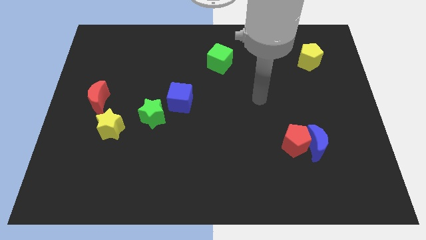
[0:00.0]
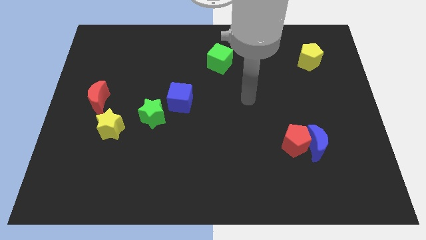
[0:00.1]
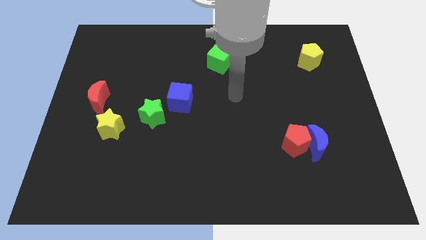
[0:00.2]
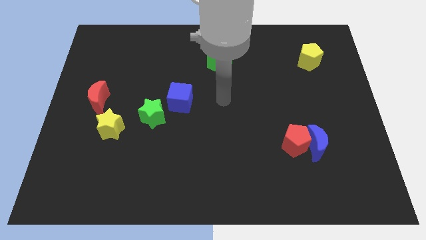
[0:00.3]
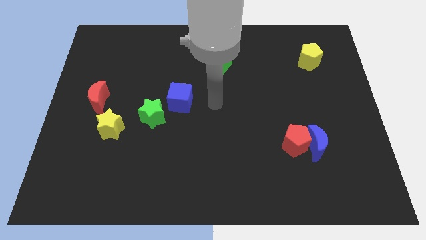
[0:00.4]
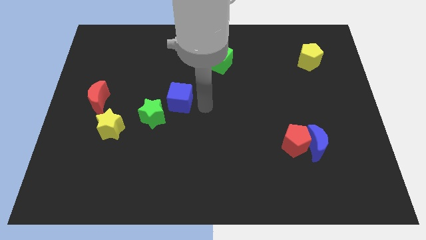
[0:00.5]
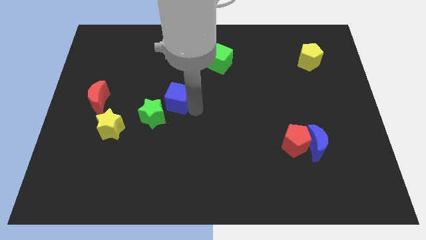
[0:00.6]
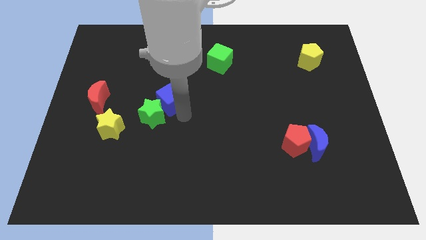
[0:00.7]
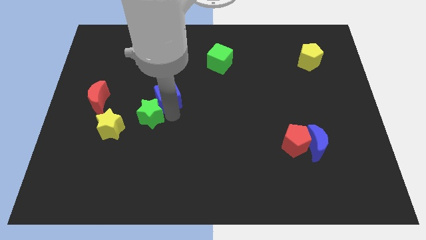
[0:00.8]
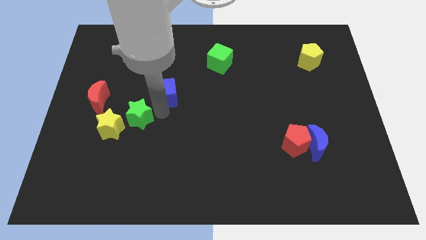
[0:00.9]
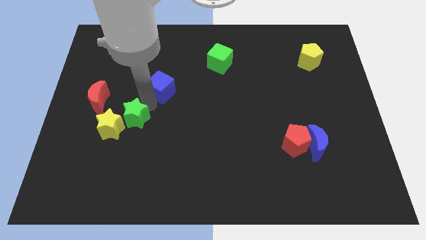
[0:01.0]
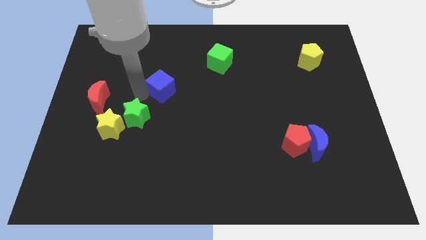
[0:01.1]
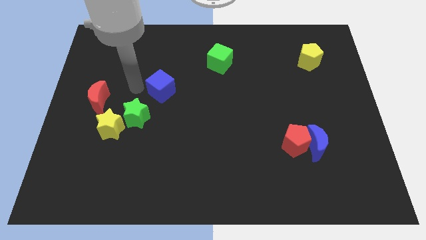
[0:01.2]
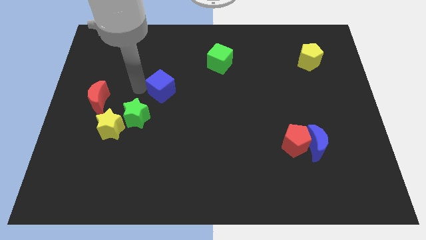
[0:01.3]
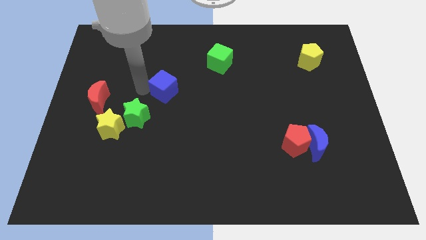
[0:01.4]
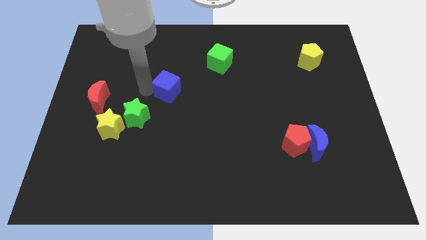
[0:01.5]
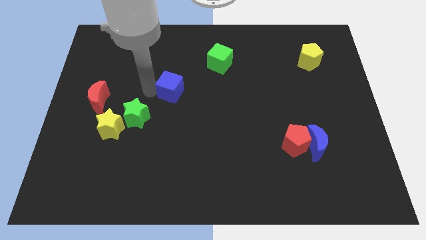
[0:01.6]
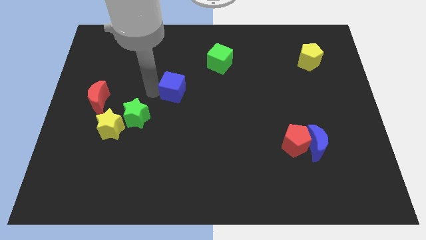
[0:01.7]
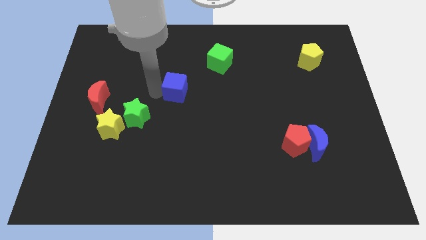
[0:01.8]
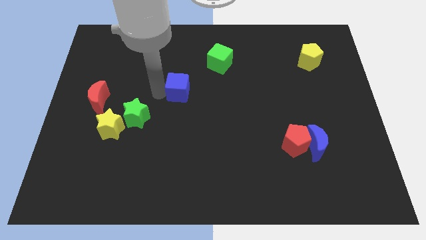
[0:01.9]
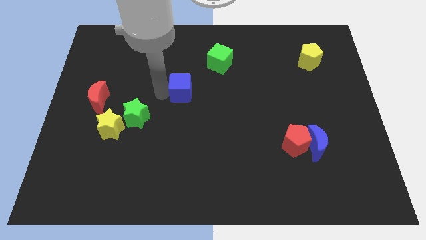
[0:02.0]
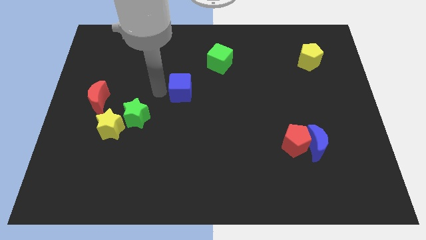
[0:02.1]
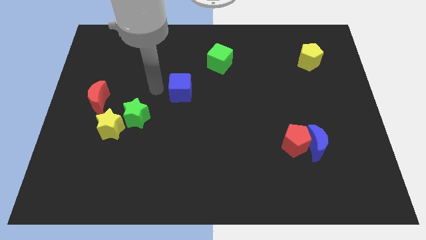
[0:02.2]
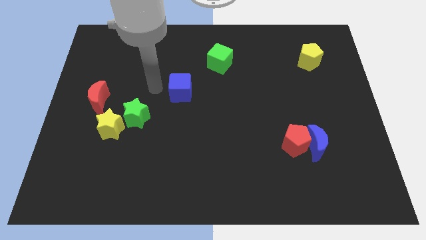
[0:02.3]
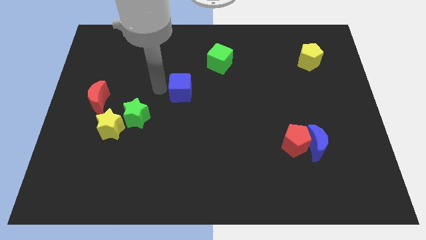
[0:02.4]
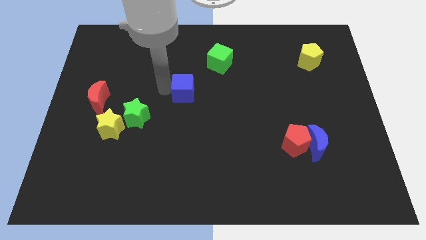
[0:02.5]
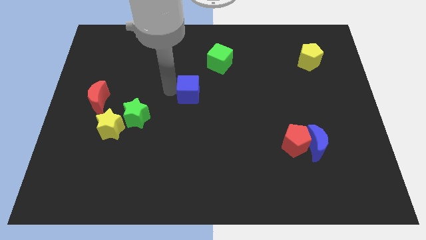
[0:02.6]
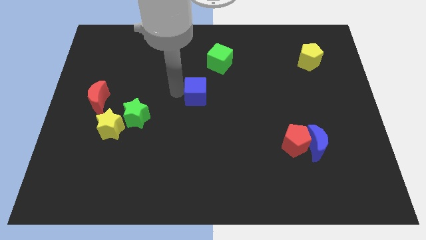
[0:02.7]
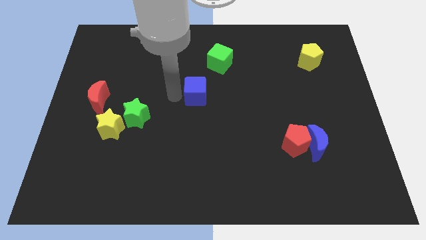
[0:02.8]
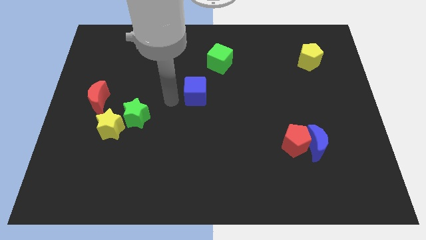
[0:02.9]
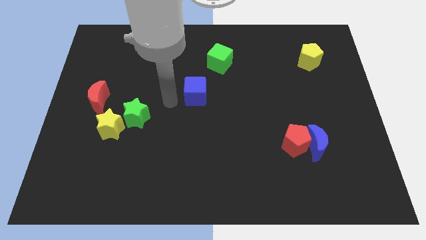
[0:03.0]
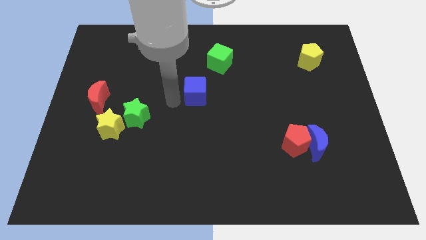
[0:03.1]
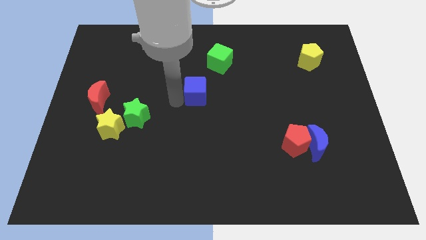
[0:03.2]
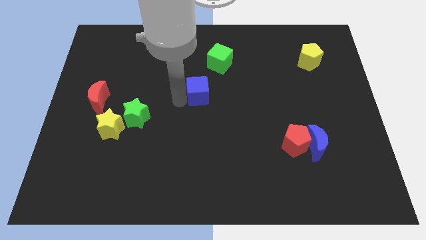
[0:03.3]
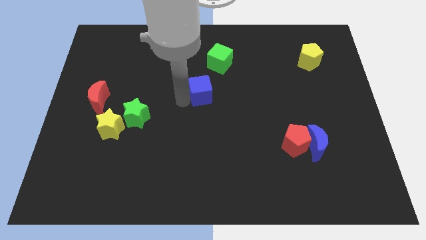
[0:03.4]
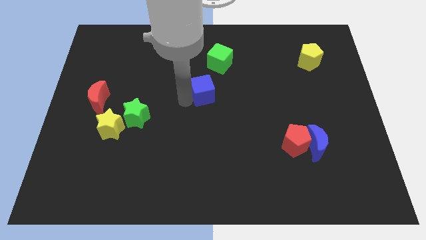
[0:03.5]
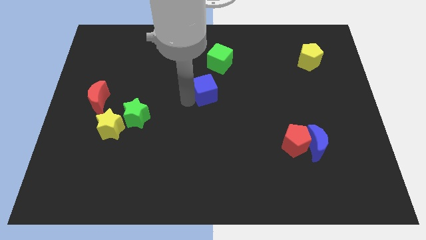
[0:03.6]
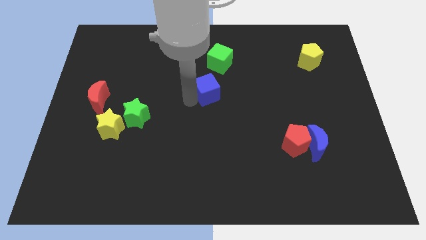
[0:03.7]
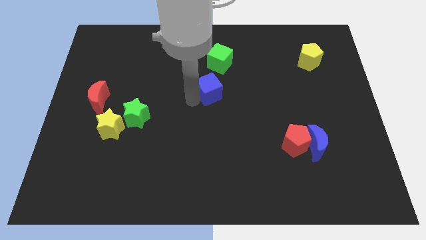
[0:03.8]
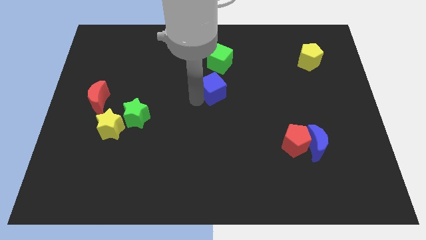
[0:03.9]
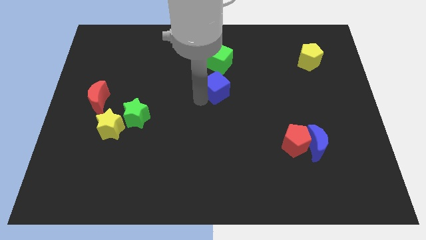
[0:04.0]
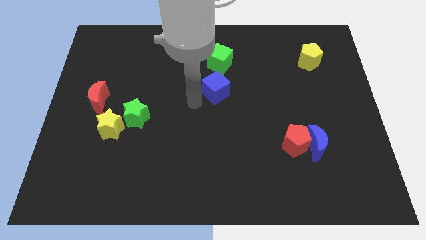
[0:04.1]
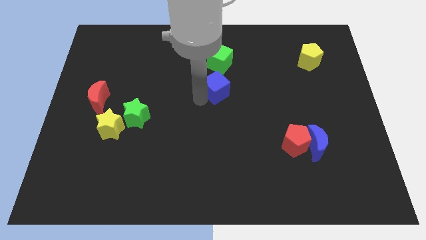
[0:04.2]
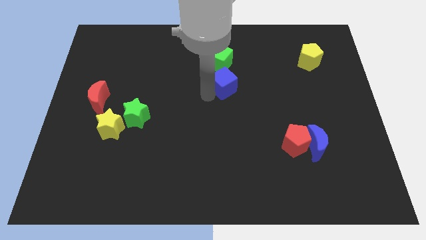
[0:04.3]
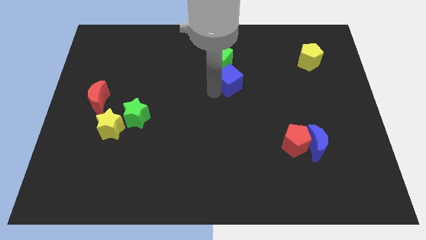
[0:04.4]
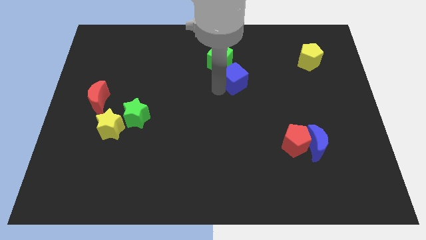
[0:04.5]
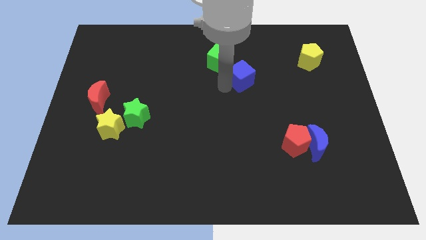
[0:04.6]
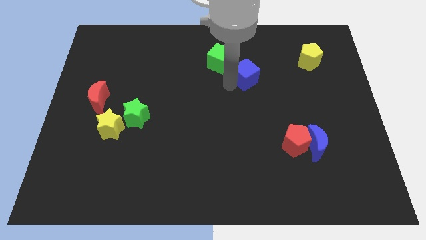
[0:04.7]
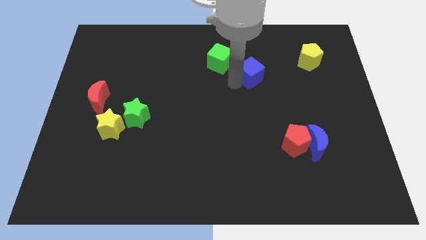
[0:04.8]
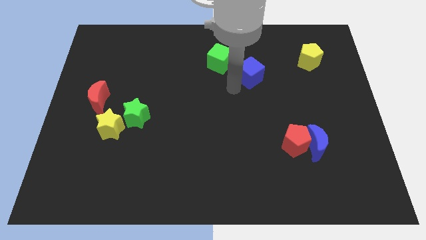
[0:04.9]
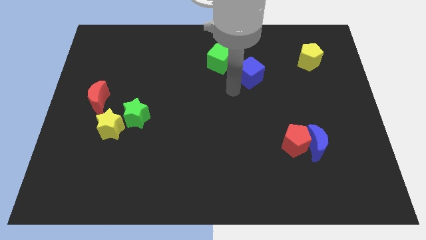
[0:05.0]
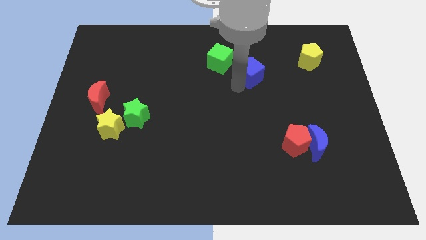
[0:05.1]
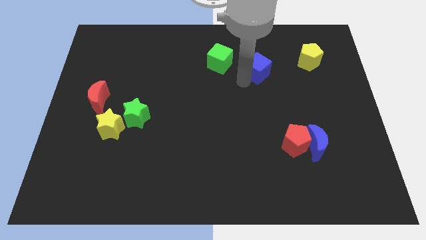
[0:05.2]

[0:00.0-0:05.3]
put the blue cube to the left side of the yellow pentagon

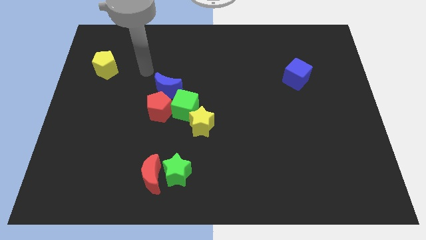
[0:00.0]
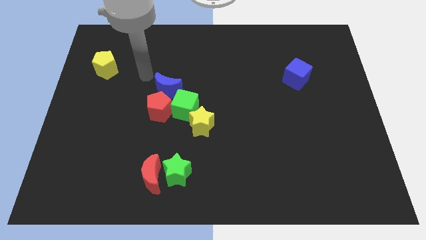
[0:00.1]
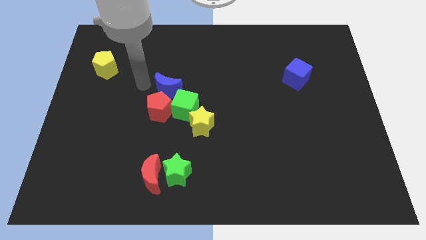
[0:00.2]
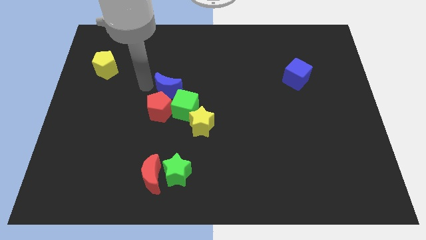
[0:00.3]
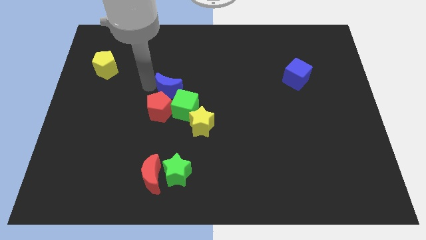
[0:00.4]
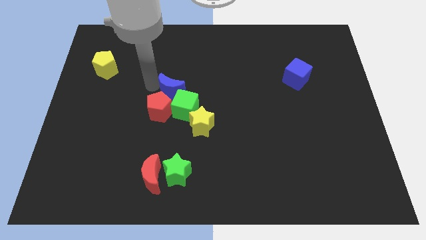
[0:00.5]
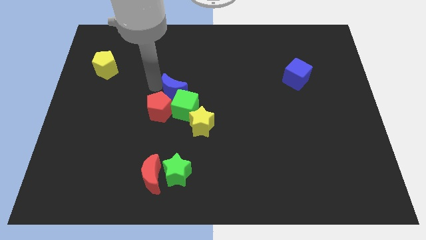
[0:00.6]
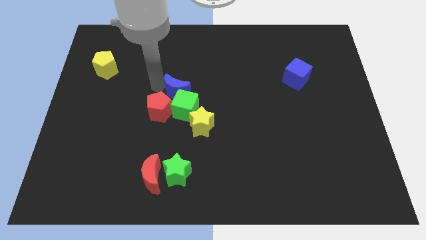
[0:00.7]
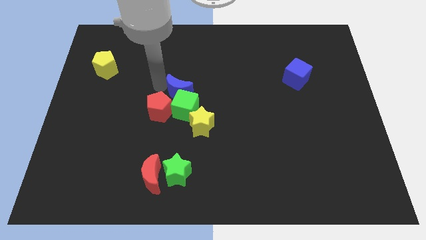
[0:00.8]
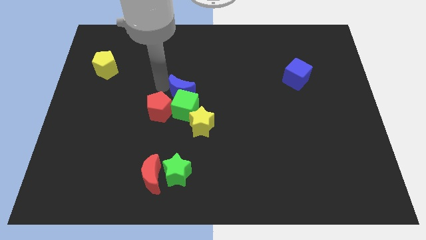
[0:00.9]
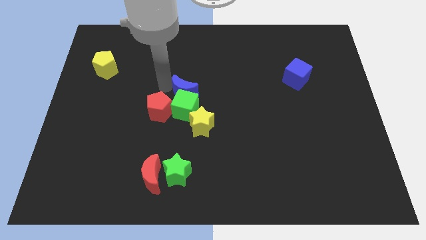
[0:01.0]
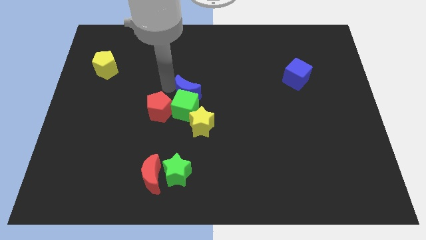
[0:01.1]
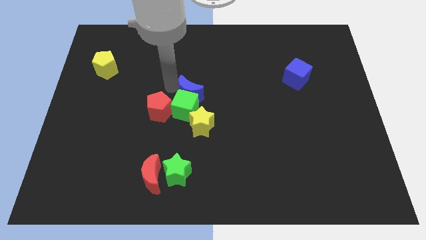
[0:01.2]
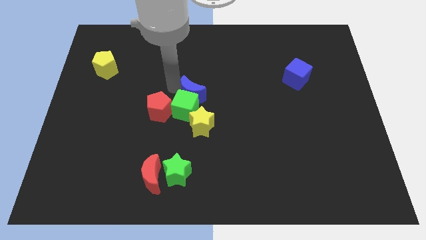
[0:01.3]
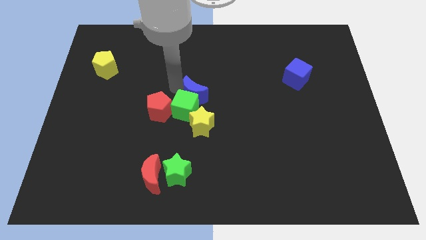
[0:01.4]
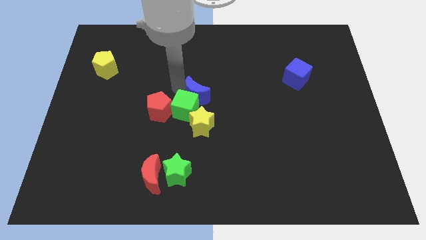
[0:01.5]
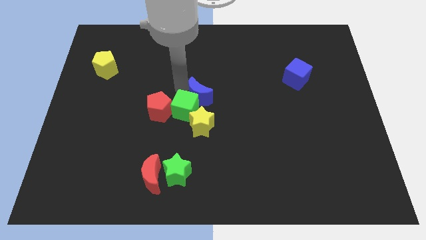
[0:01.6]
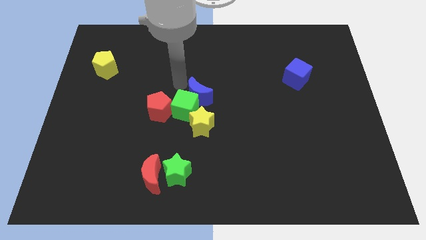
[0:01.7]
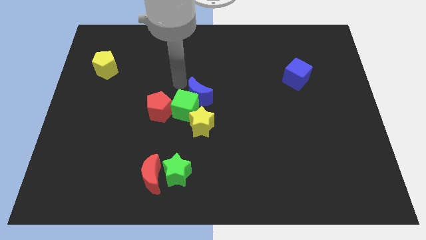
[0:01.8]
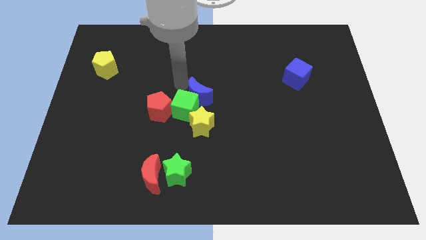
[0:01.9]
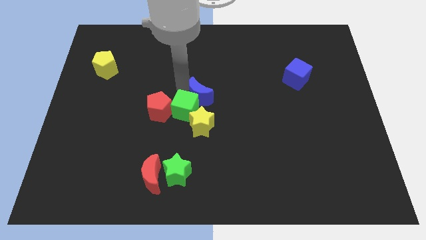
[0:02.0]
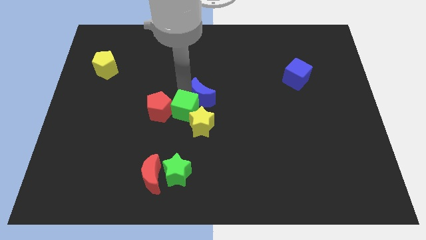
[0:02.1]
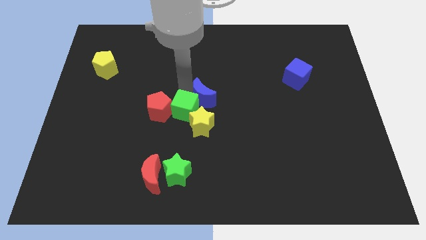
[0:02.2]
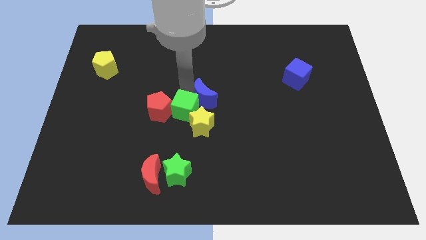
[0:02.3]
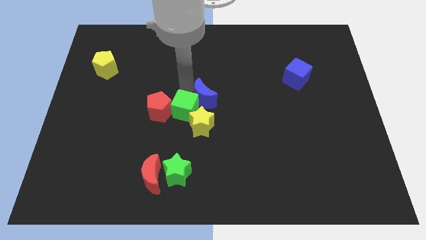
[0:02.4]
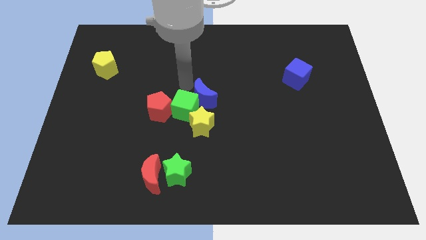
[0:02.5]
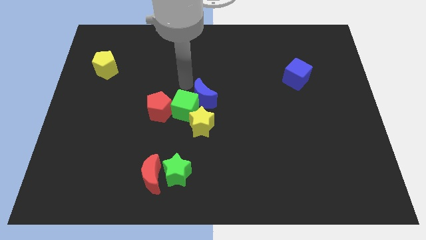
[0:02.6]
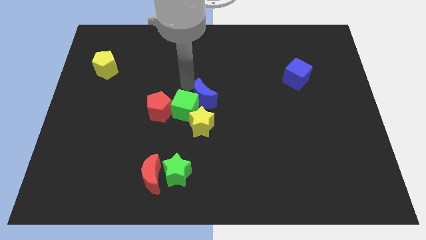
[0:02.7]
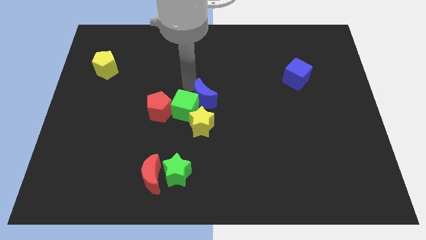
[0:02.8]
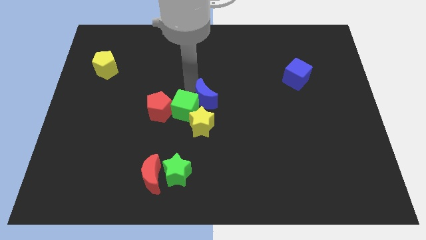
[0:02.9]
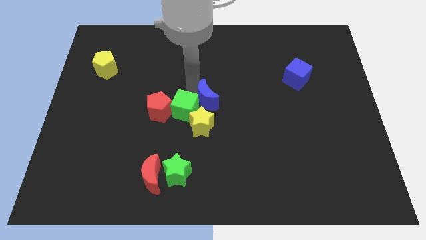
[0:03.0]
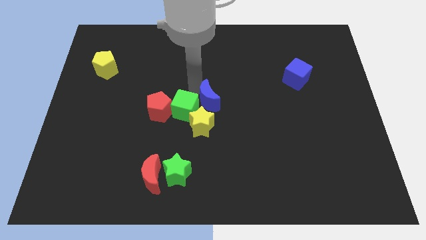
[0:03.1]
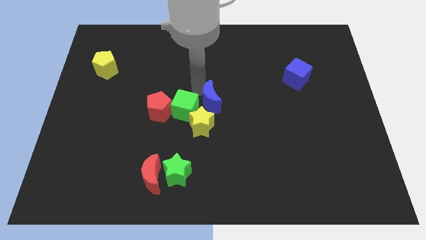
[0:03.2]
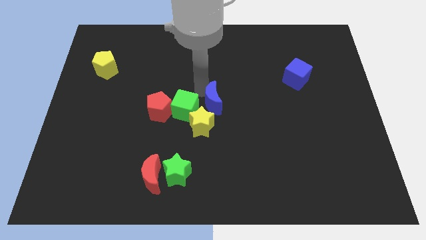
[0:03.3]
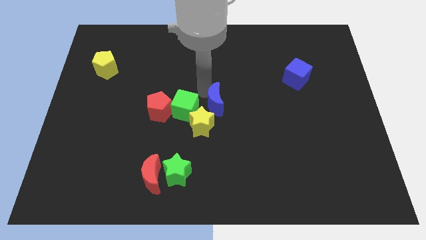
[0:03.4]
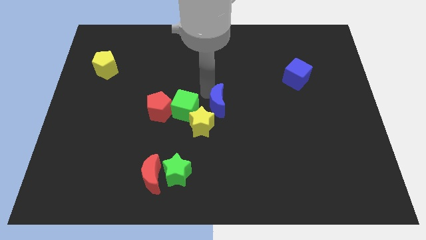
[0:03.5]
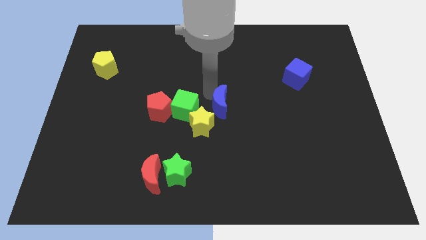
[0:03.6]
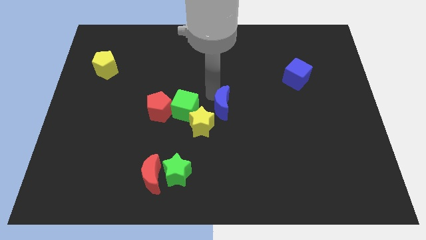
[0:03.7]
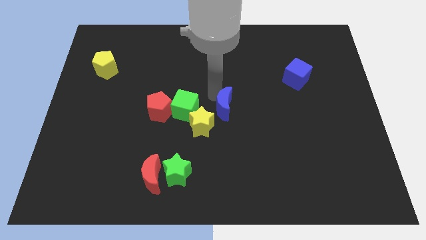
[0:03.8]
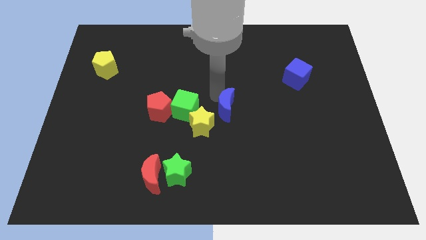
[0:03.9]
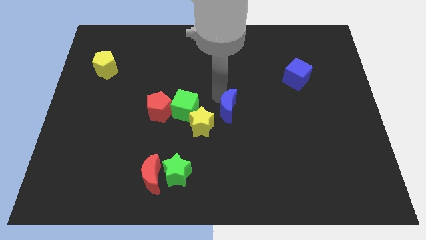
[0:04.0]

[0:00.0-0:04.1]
slide the blue moon right of the yellow star
